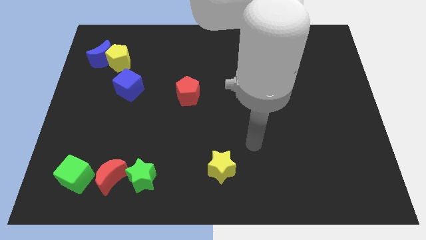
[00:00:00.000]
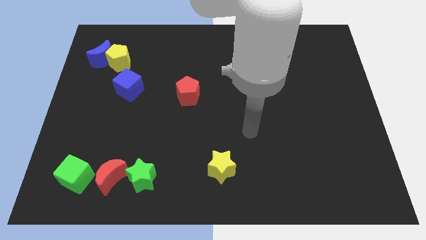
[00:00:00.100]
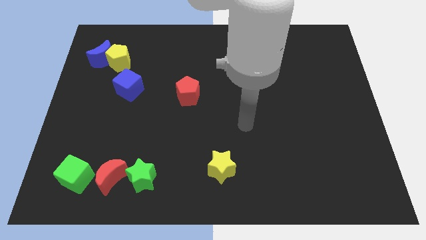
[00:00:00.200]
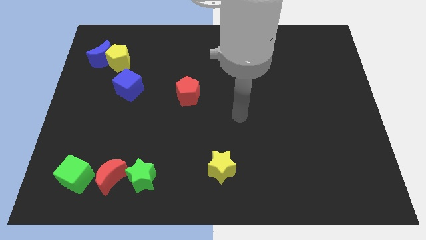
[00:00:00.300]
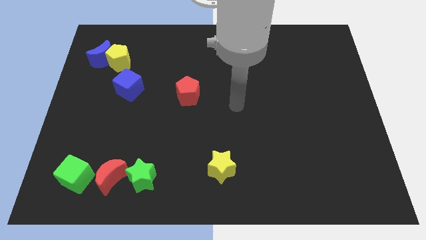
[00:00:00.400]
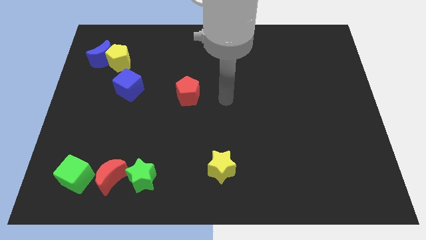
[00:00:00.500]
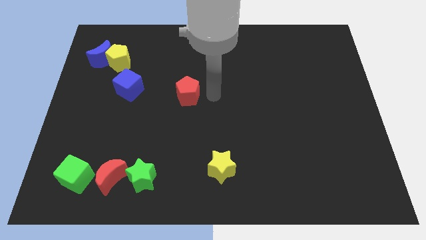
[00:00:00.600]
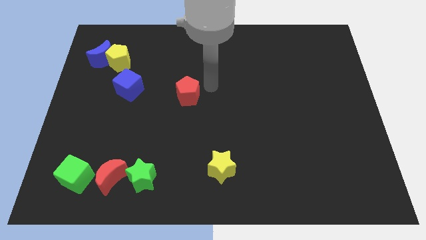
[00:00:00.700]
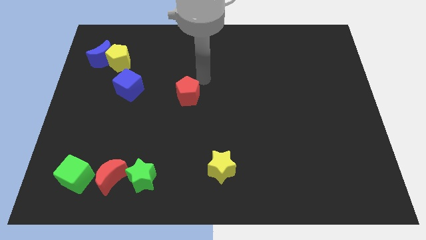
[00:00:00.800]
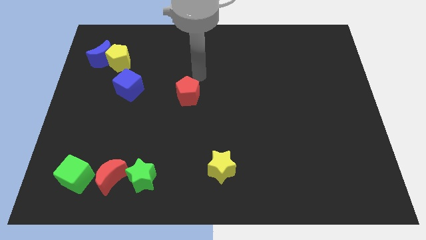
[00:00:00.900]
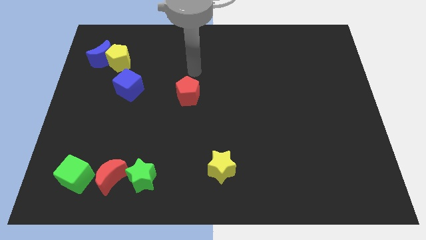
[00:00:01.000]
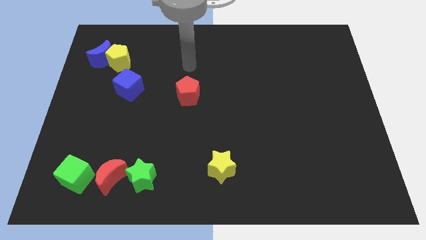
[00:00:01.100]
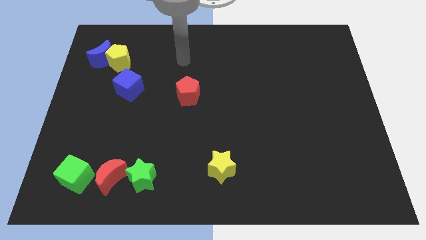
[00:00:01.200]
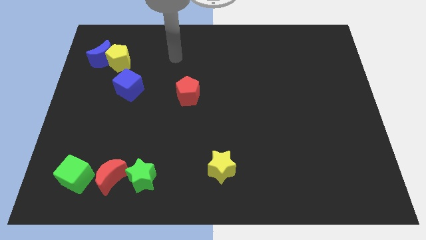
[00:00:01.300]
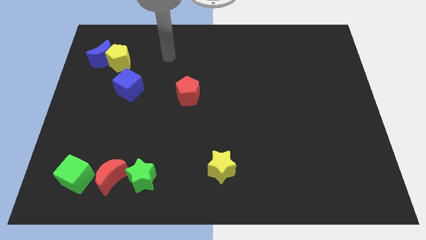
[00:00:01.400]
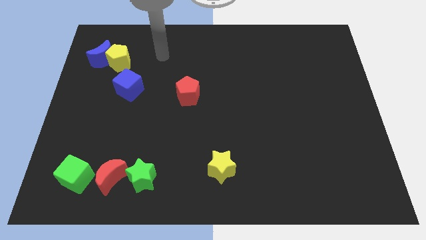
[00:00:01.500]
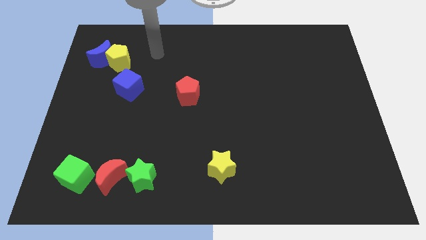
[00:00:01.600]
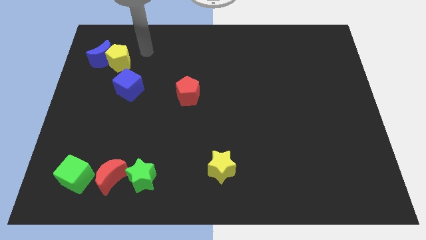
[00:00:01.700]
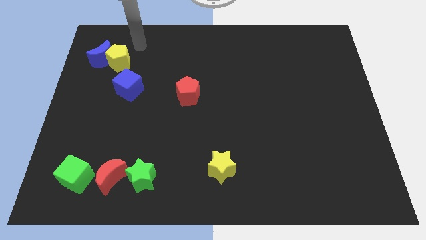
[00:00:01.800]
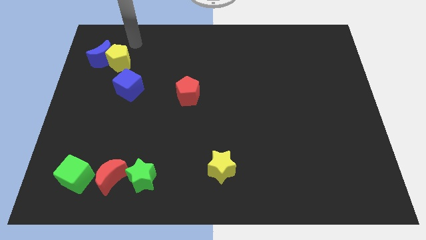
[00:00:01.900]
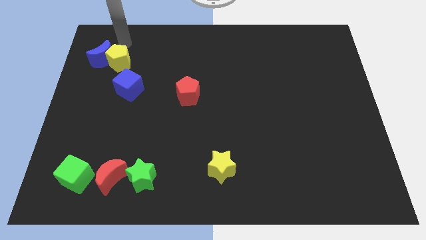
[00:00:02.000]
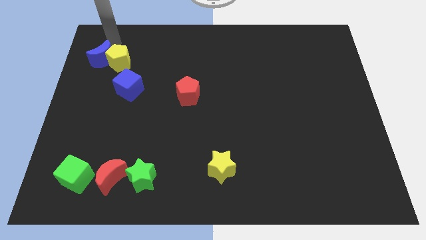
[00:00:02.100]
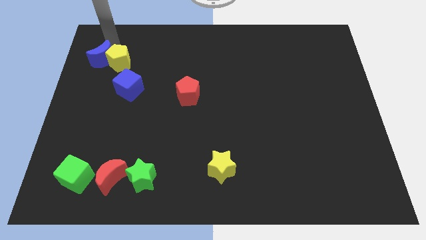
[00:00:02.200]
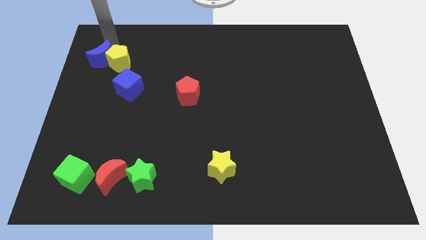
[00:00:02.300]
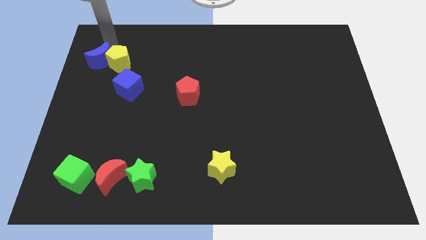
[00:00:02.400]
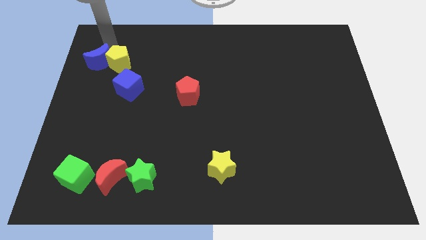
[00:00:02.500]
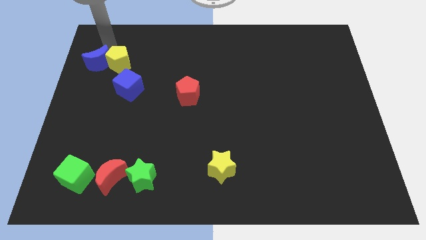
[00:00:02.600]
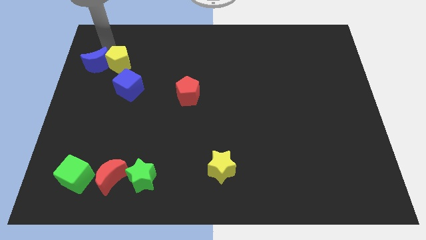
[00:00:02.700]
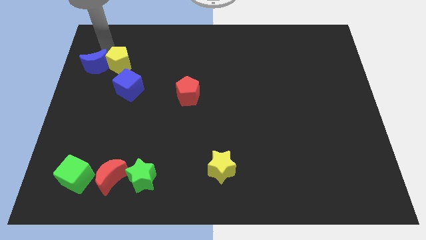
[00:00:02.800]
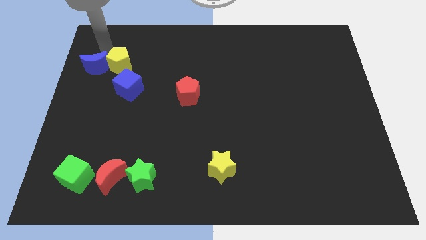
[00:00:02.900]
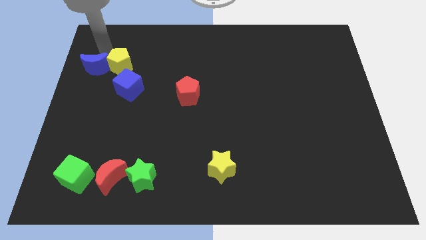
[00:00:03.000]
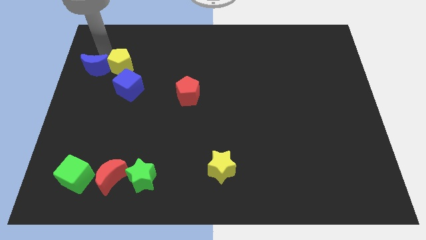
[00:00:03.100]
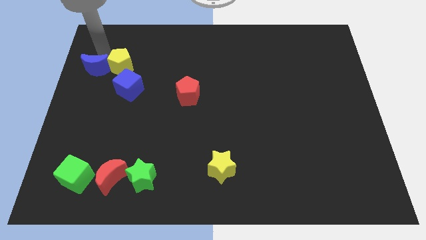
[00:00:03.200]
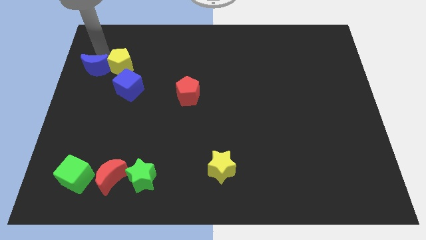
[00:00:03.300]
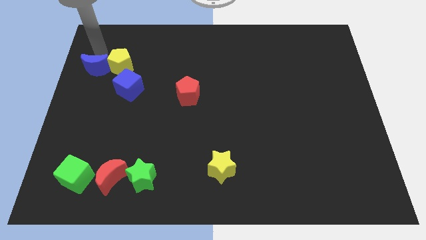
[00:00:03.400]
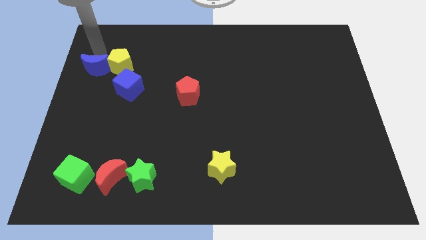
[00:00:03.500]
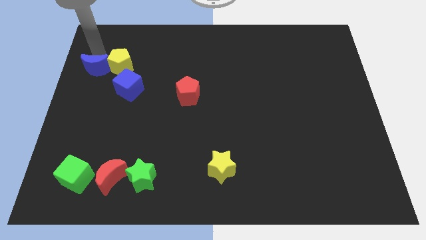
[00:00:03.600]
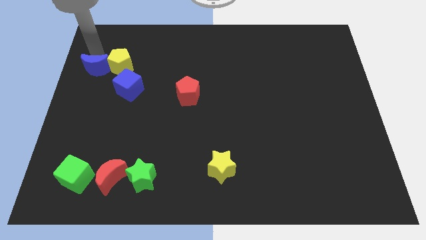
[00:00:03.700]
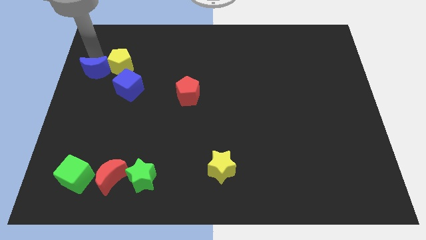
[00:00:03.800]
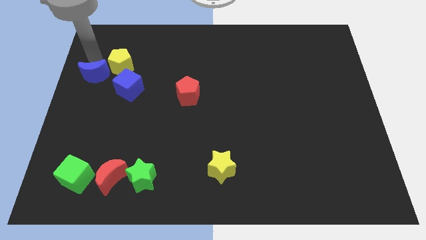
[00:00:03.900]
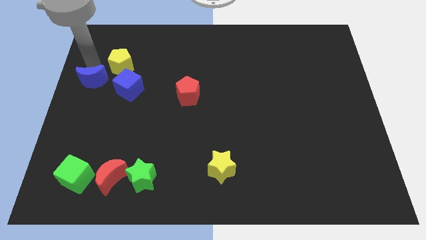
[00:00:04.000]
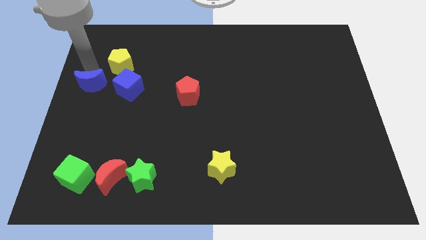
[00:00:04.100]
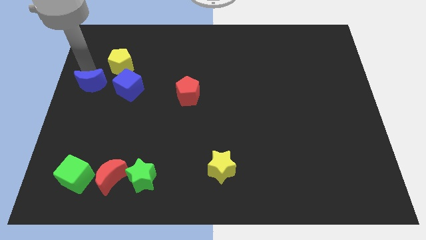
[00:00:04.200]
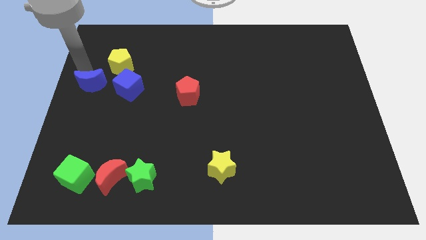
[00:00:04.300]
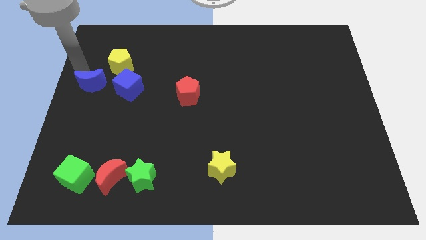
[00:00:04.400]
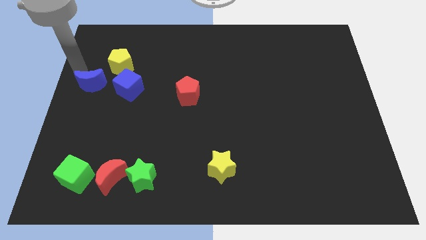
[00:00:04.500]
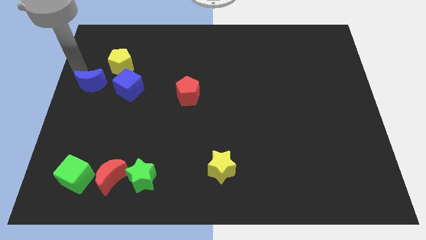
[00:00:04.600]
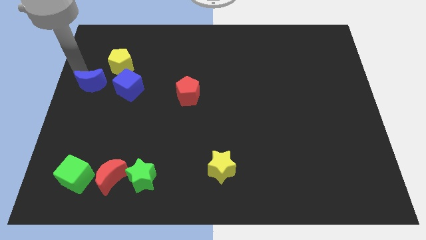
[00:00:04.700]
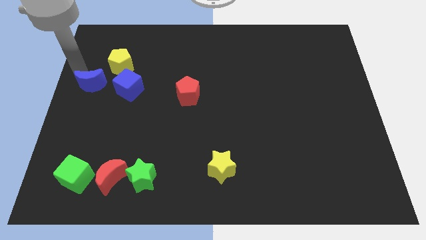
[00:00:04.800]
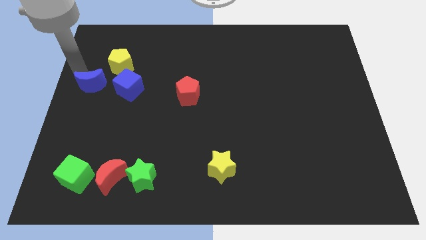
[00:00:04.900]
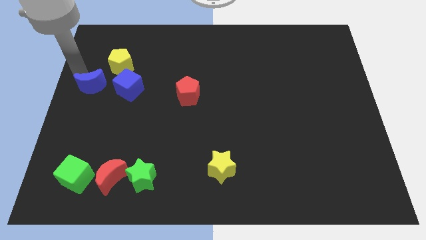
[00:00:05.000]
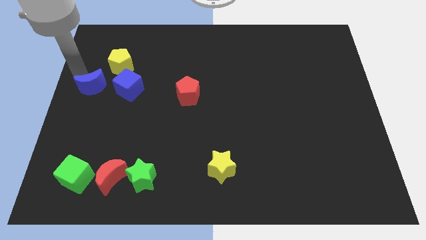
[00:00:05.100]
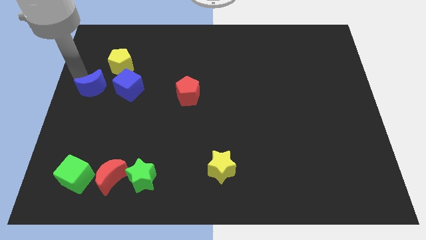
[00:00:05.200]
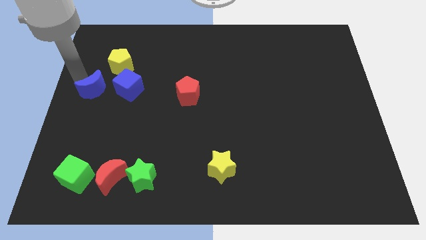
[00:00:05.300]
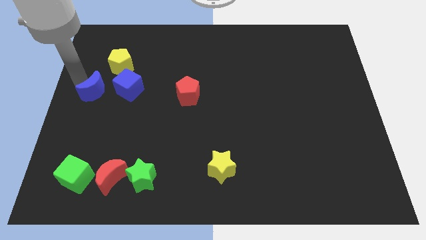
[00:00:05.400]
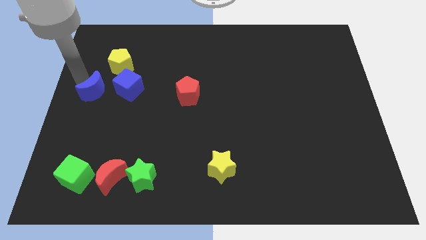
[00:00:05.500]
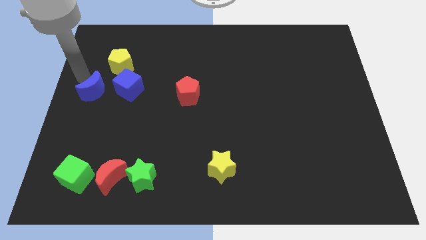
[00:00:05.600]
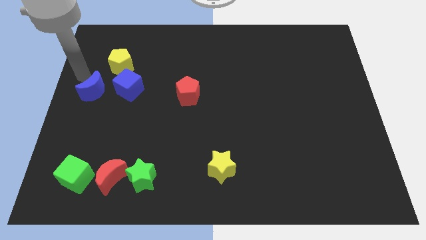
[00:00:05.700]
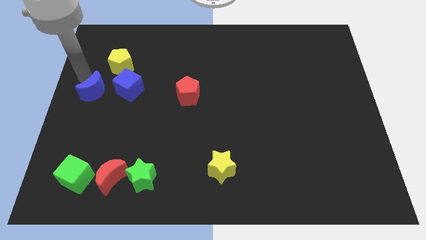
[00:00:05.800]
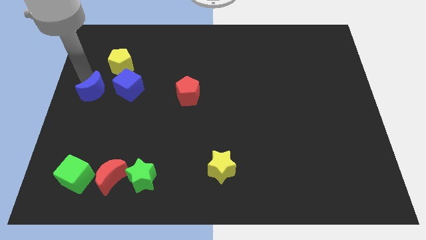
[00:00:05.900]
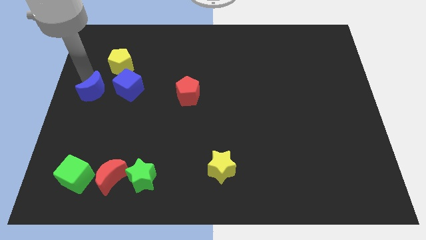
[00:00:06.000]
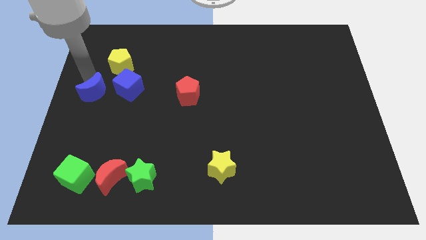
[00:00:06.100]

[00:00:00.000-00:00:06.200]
move the blue moon to the bottom left side of the blue cube

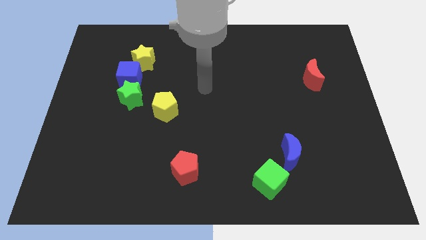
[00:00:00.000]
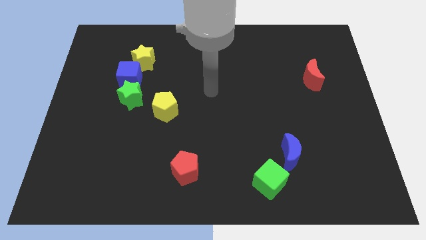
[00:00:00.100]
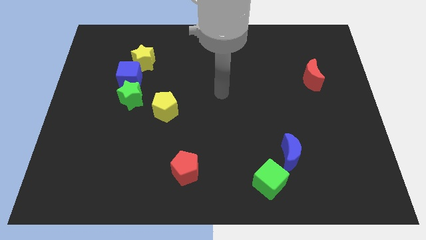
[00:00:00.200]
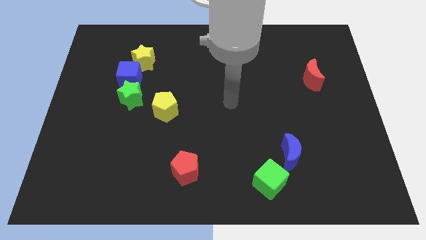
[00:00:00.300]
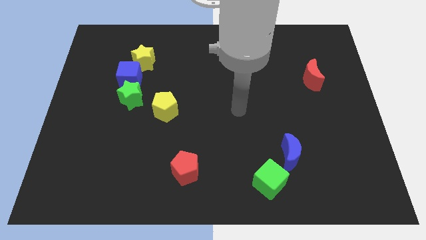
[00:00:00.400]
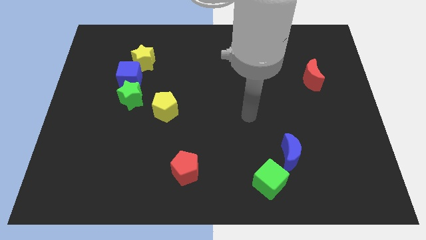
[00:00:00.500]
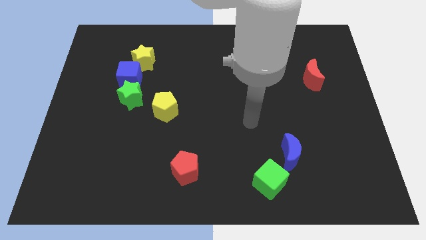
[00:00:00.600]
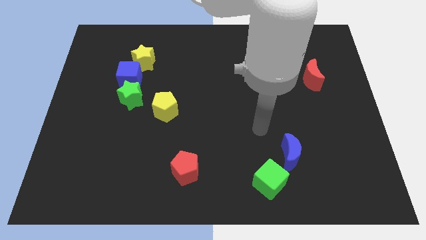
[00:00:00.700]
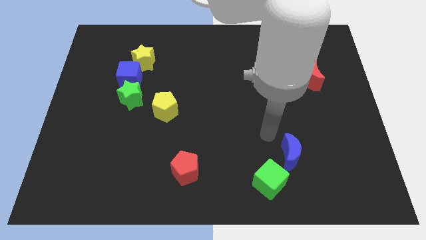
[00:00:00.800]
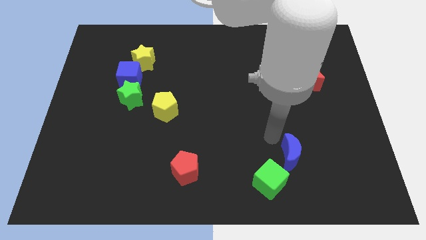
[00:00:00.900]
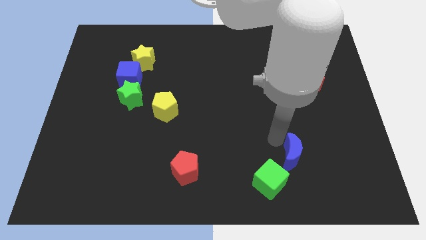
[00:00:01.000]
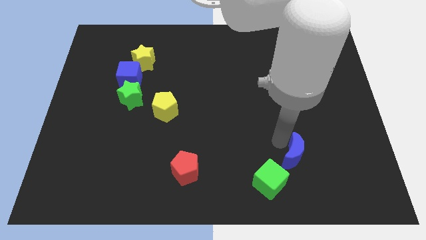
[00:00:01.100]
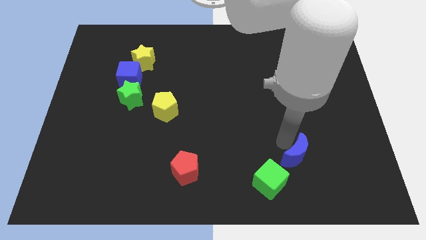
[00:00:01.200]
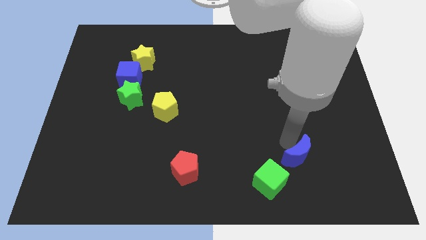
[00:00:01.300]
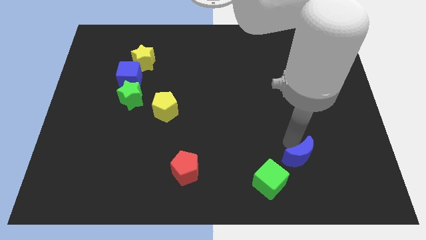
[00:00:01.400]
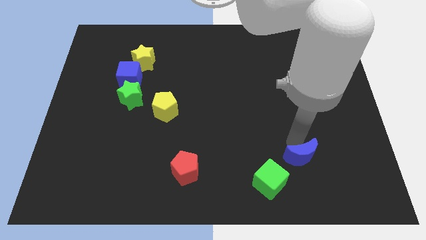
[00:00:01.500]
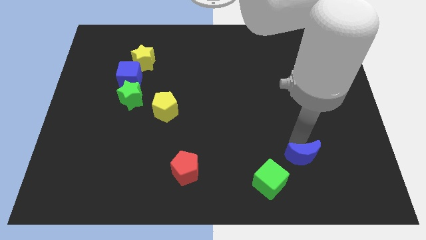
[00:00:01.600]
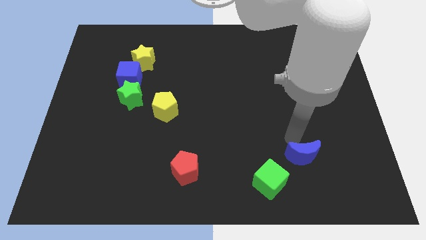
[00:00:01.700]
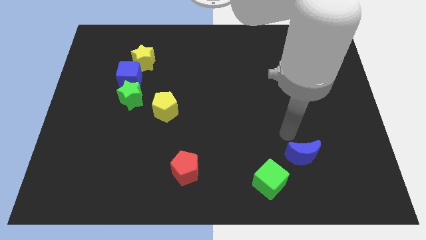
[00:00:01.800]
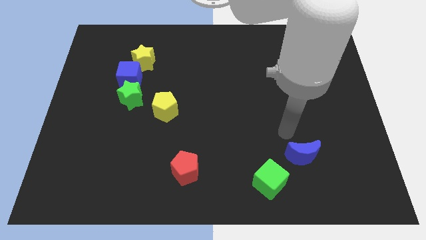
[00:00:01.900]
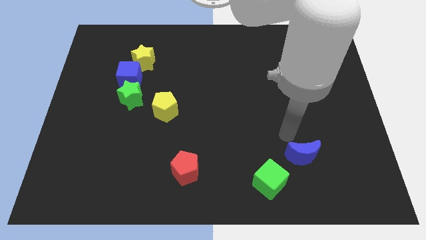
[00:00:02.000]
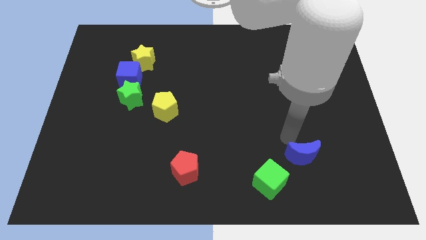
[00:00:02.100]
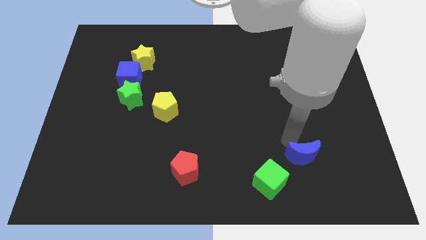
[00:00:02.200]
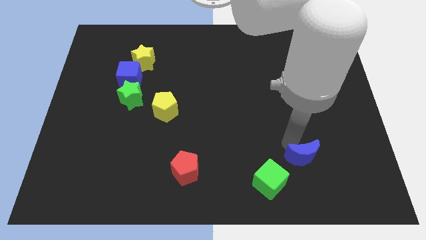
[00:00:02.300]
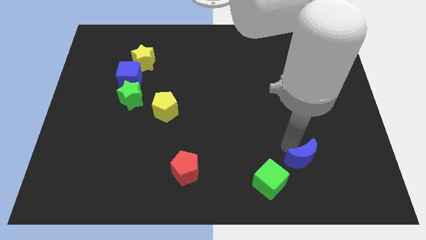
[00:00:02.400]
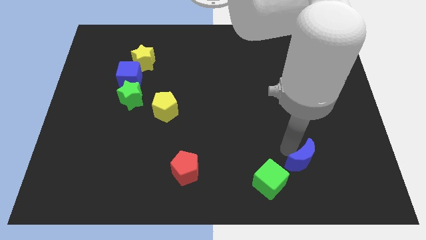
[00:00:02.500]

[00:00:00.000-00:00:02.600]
move the blue moon to the right side of the green cube
